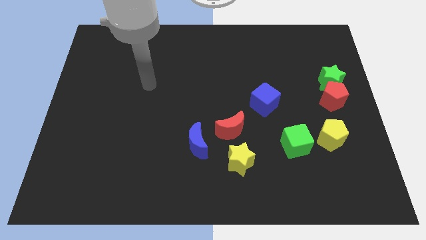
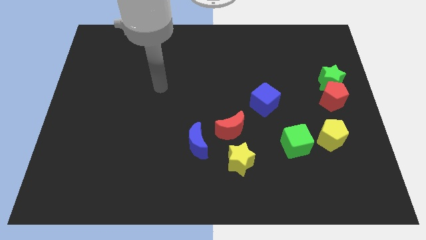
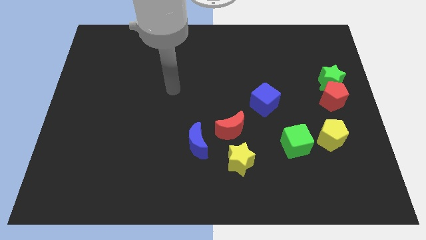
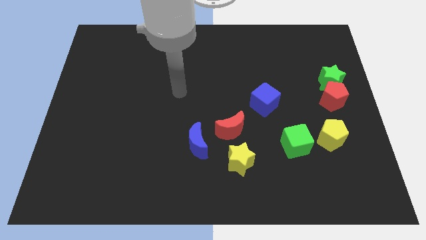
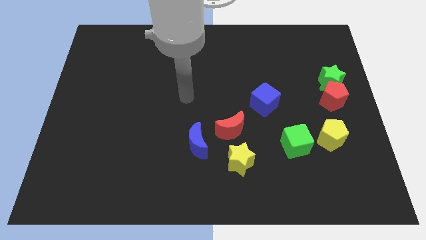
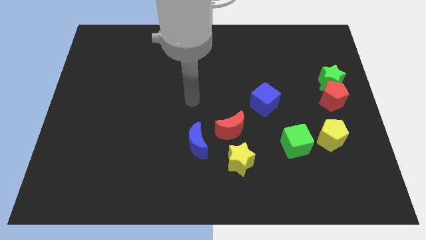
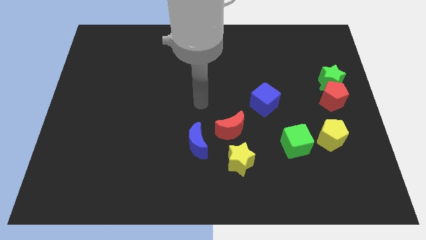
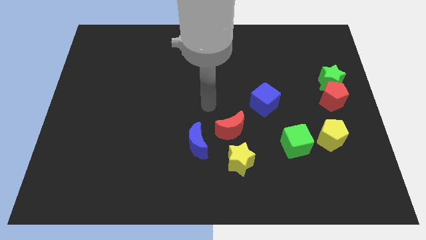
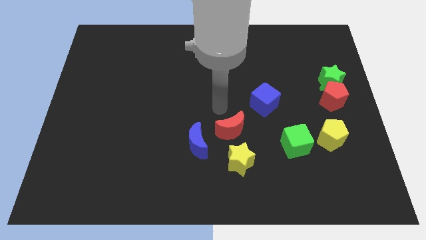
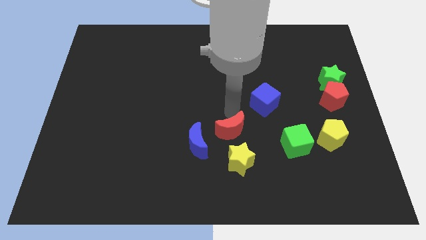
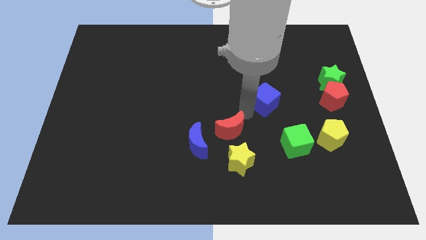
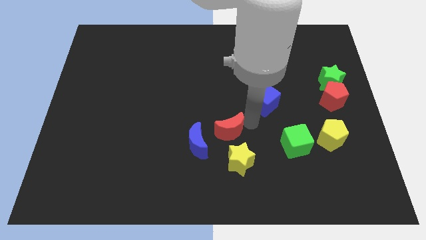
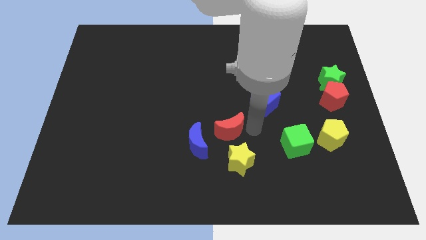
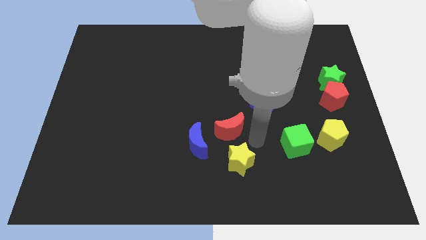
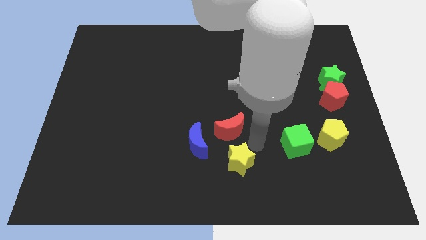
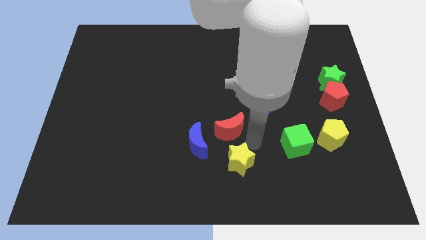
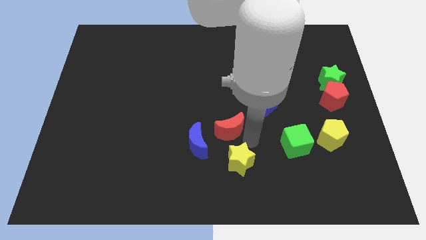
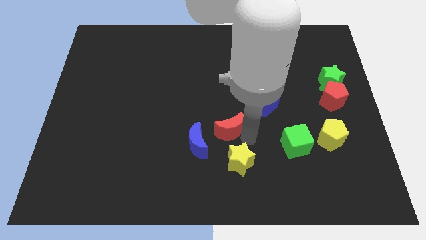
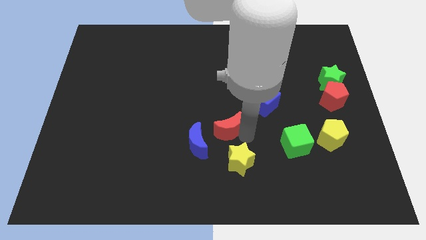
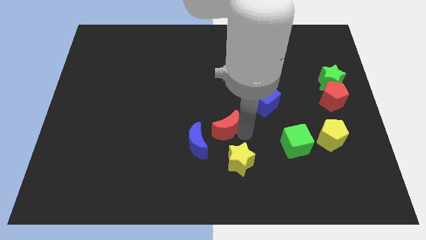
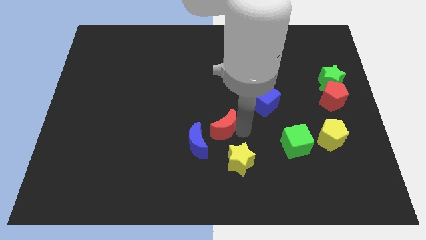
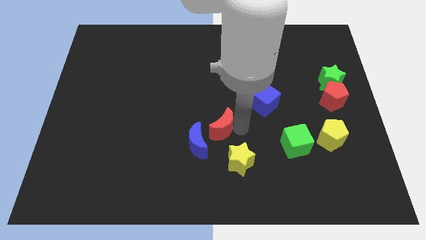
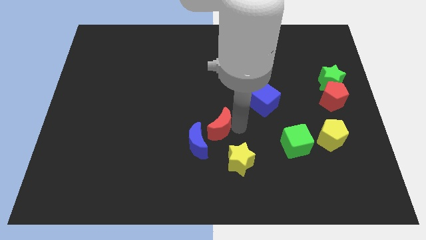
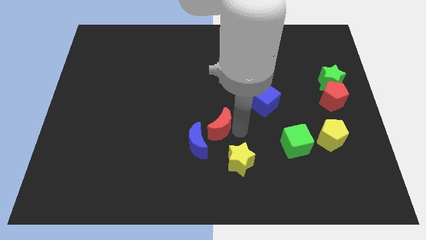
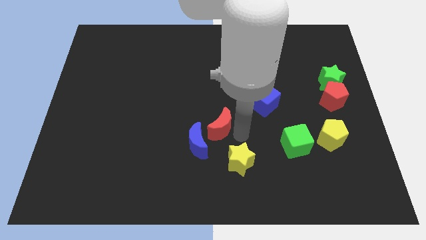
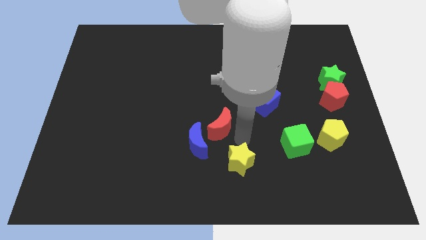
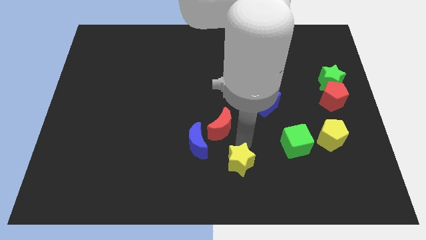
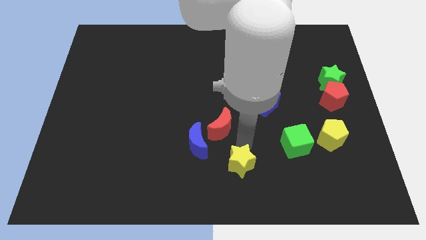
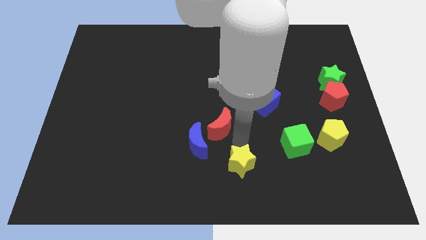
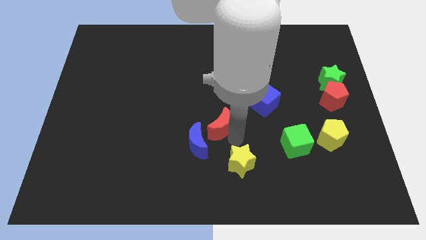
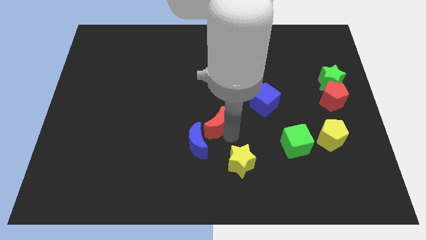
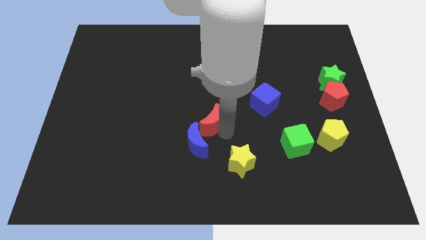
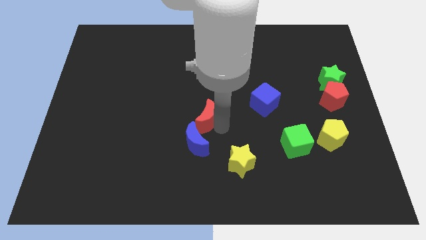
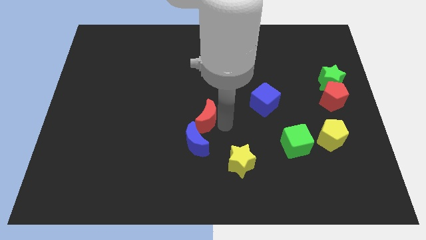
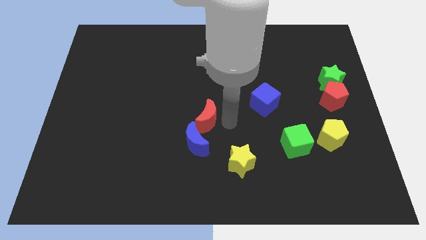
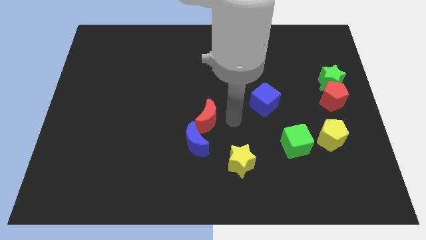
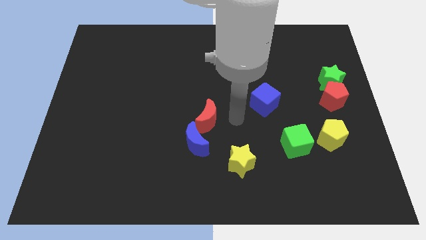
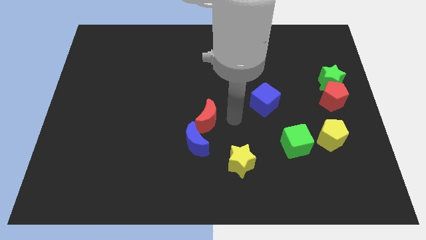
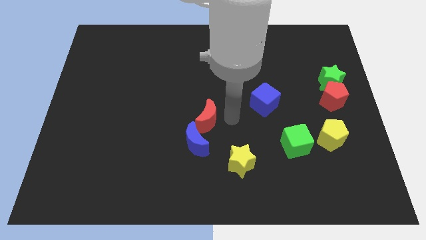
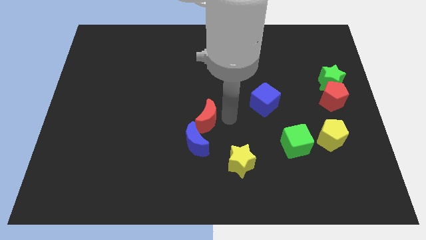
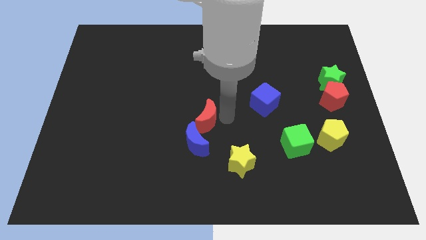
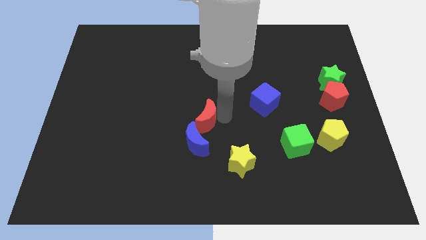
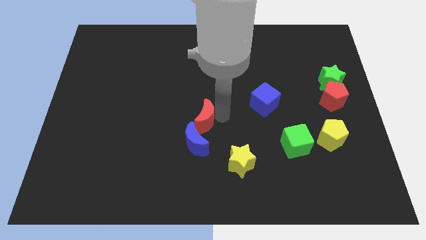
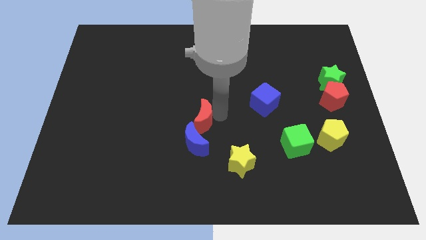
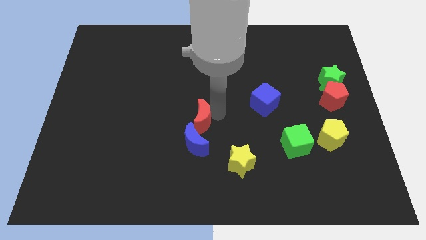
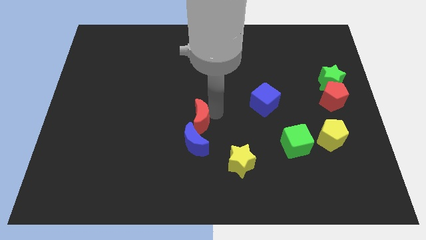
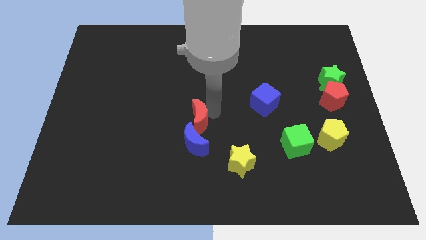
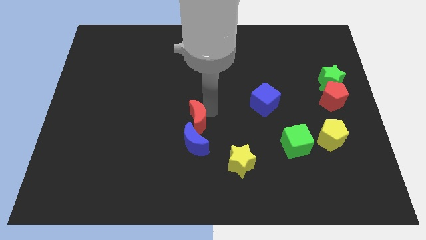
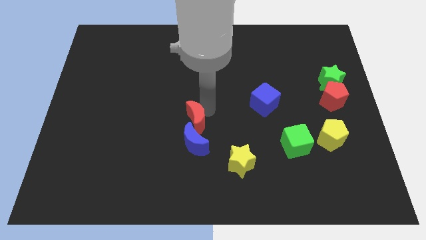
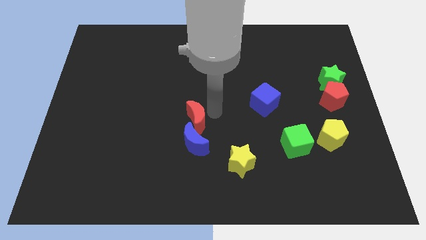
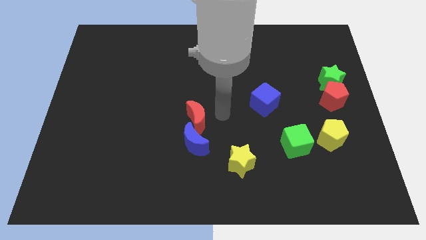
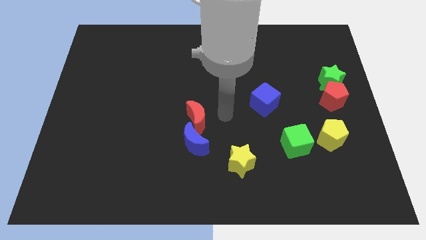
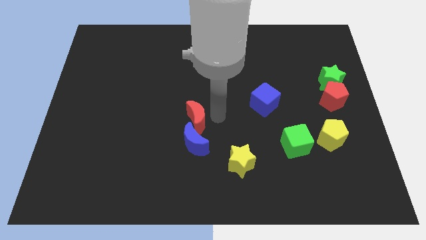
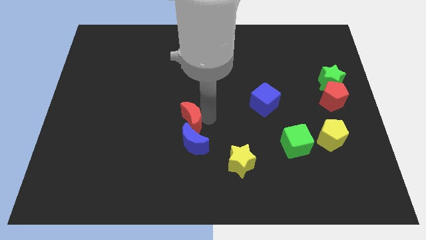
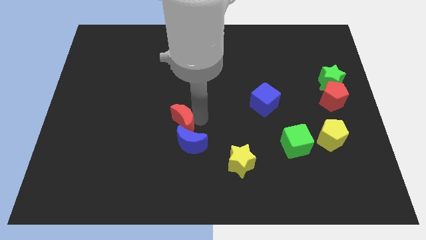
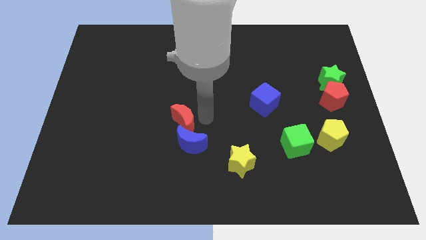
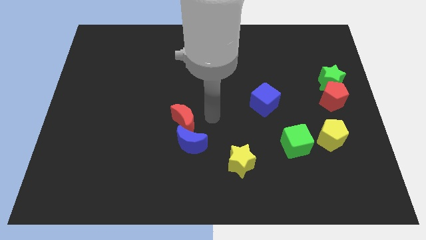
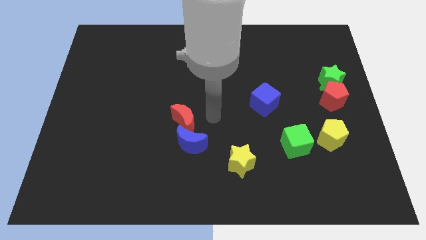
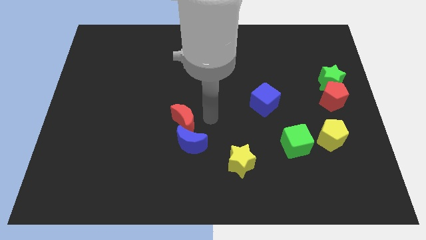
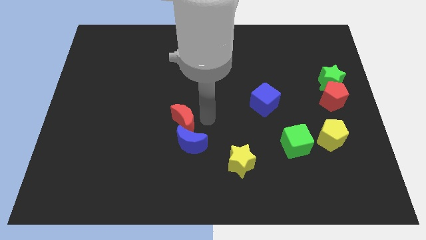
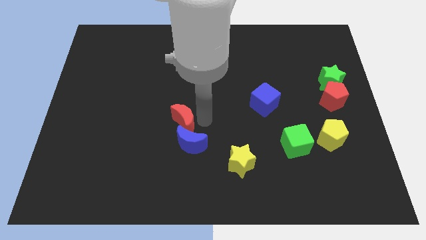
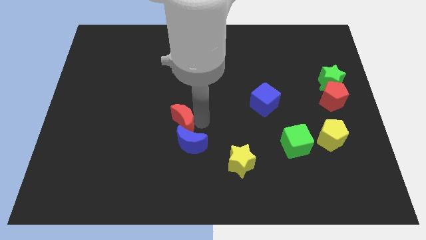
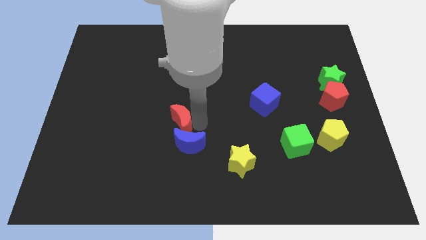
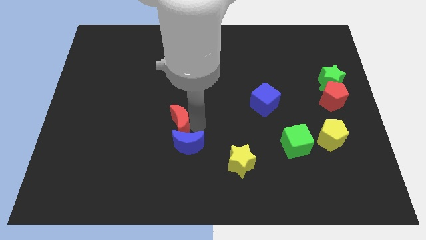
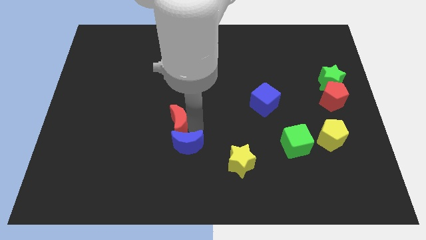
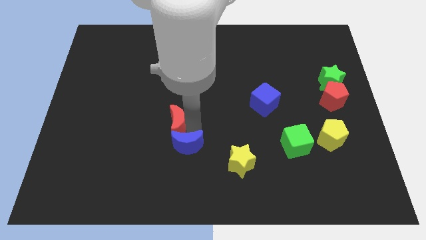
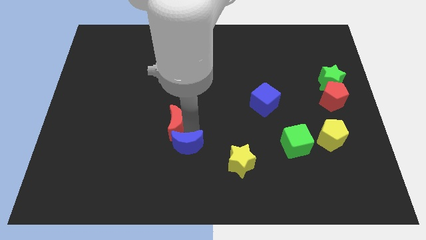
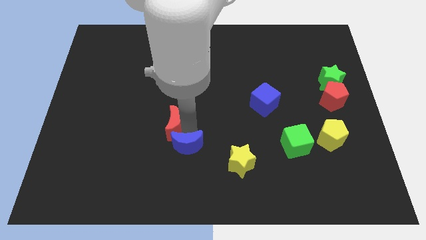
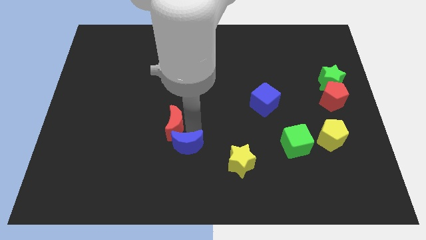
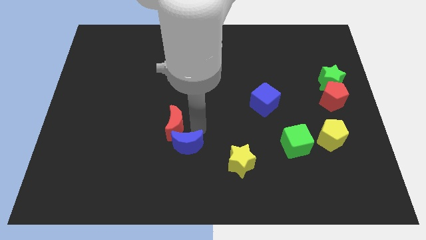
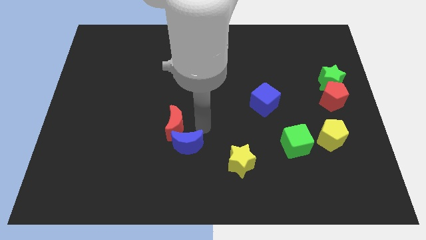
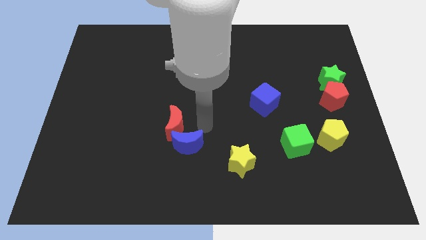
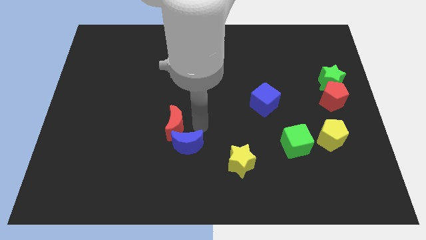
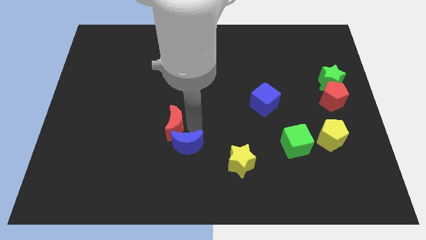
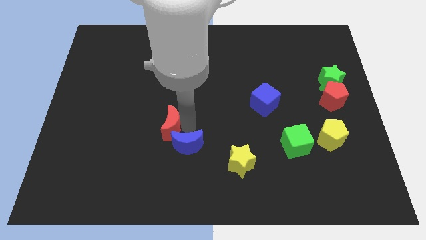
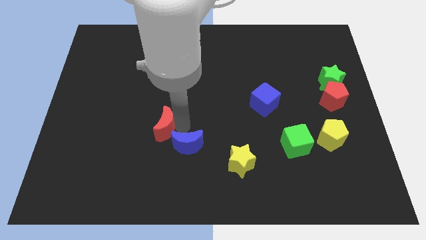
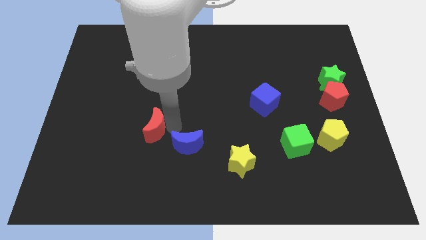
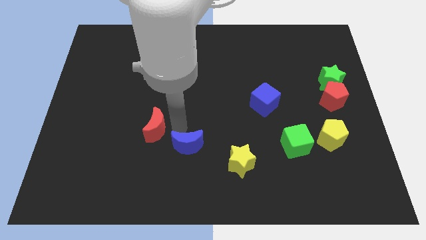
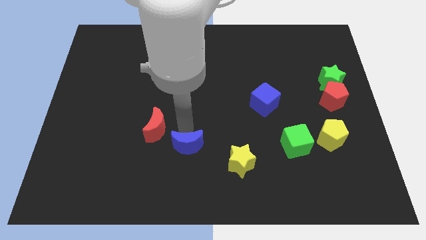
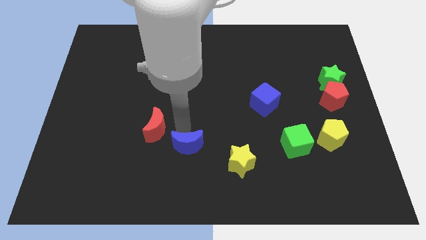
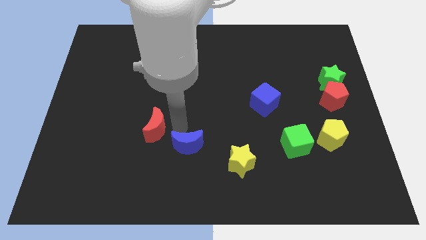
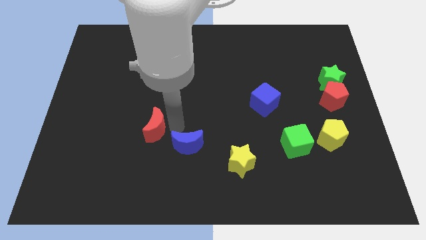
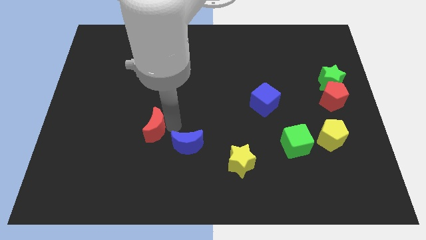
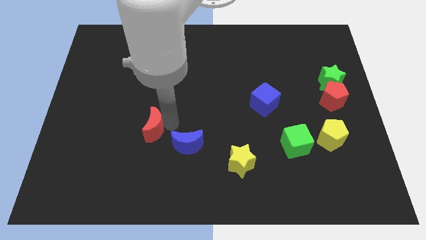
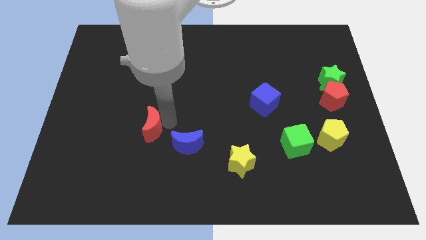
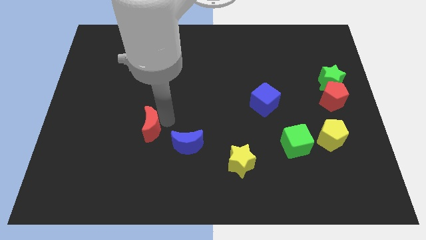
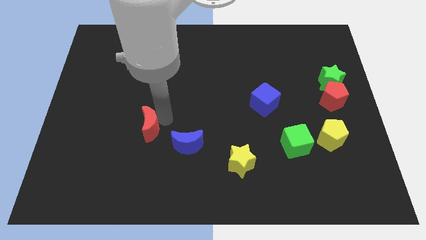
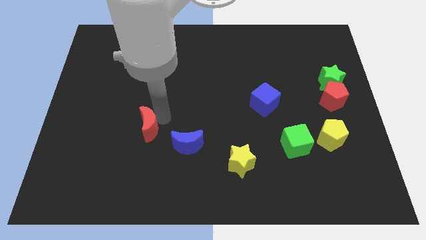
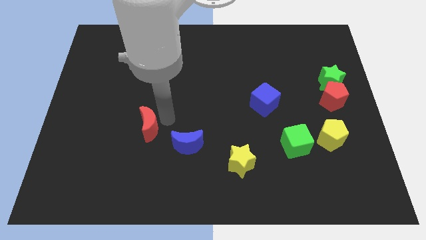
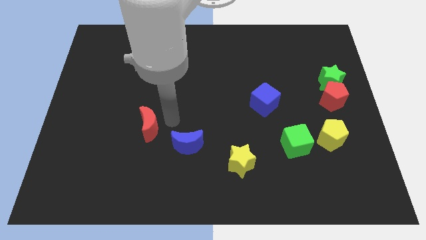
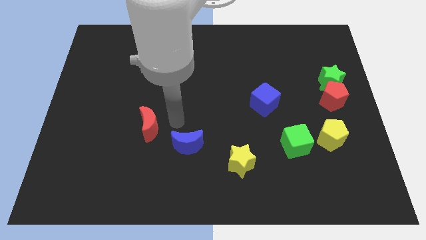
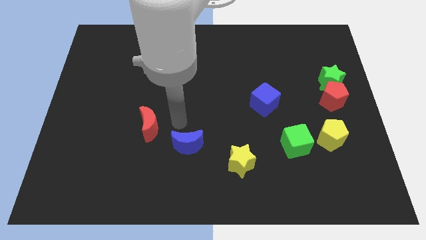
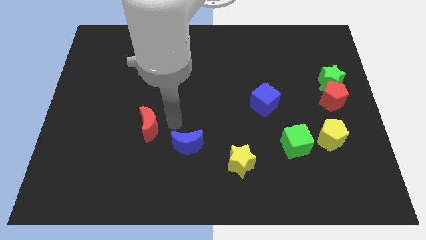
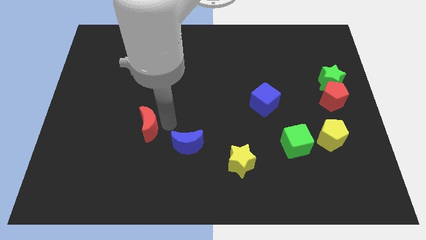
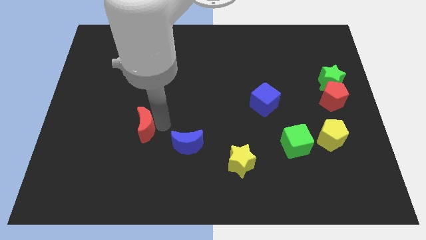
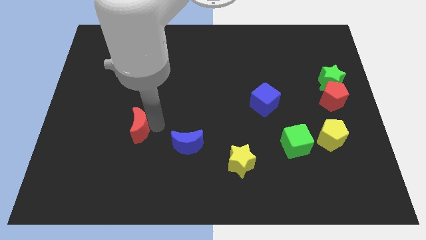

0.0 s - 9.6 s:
push the red moon to the left
